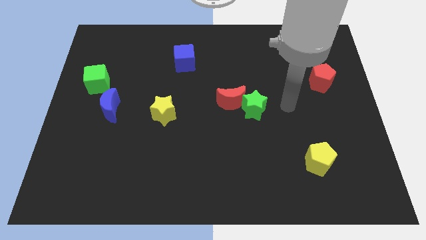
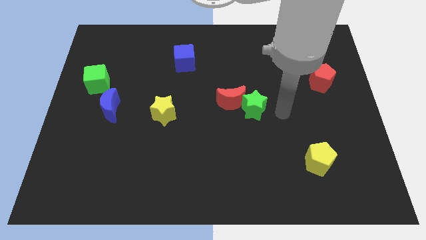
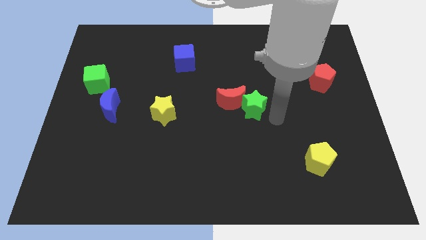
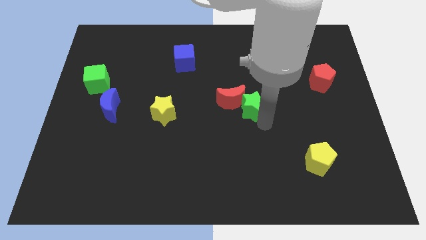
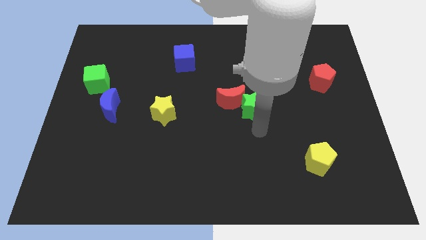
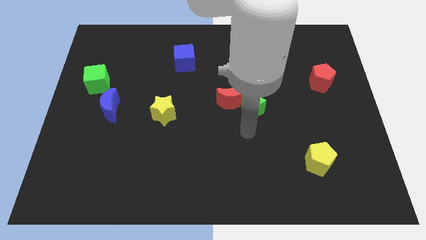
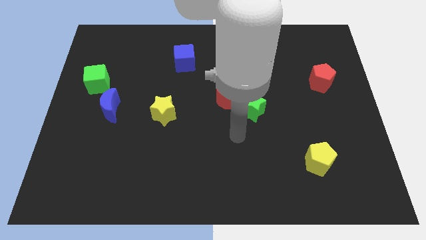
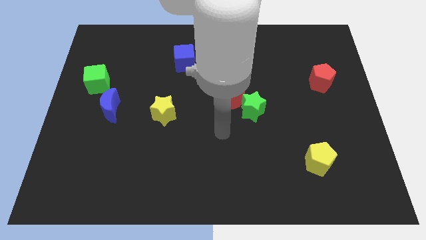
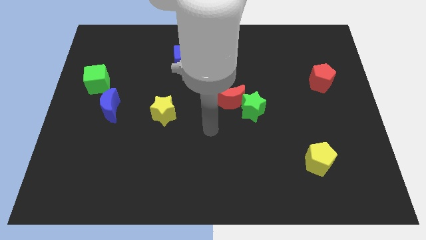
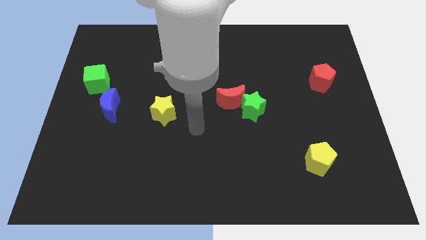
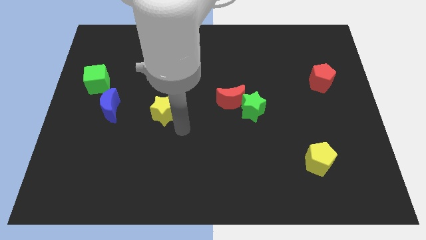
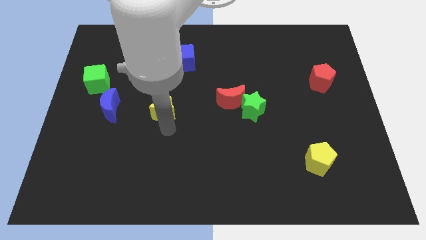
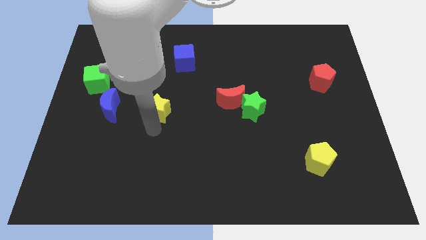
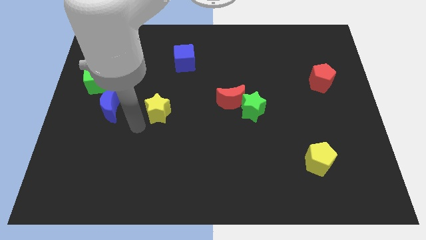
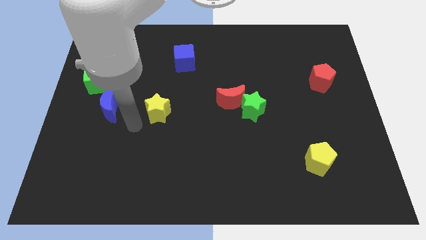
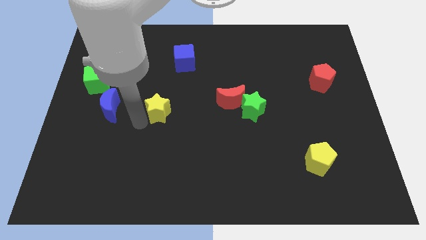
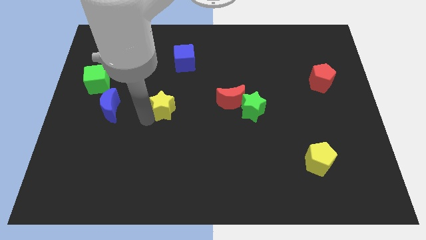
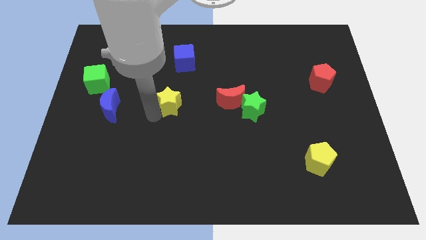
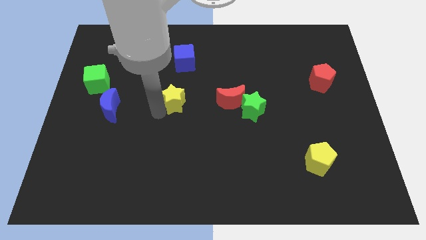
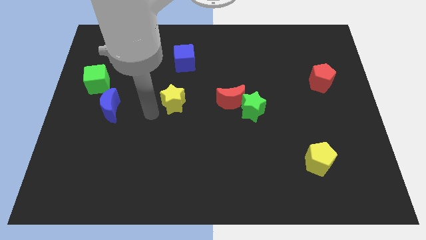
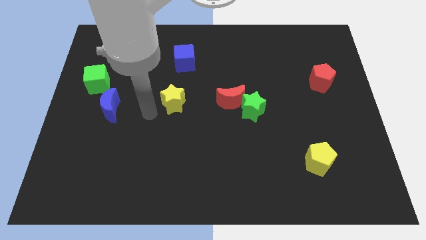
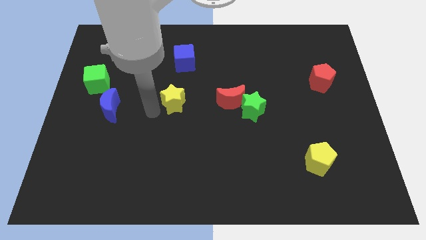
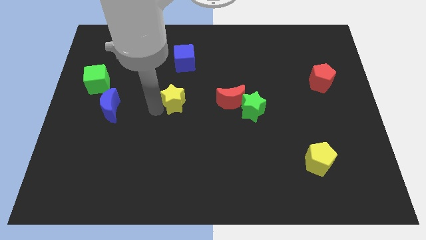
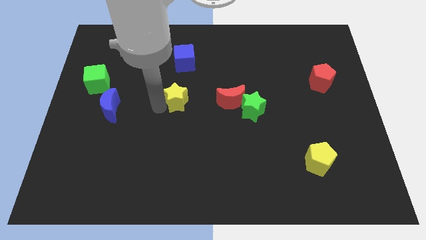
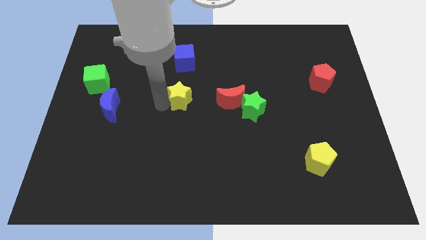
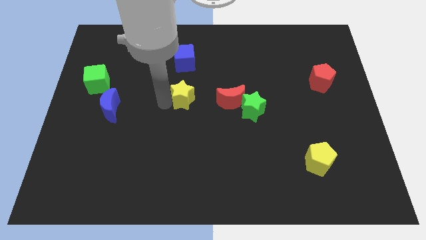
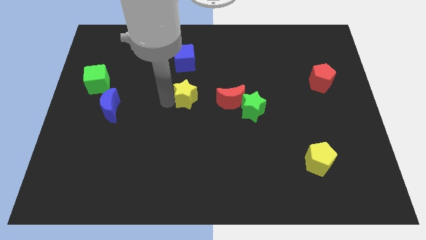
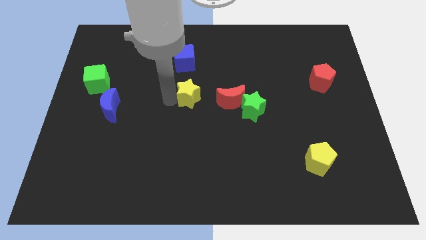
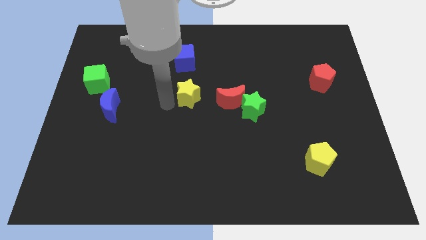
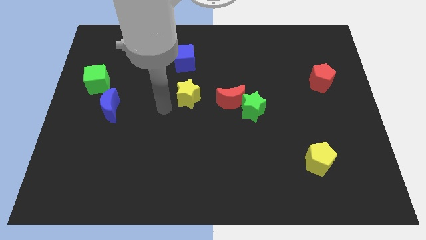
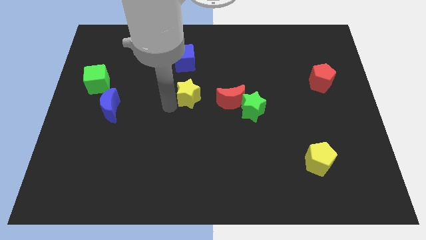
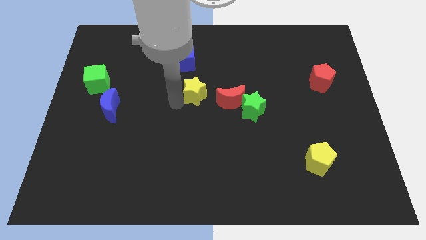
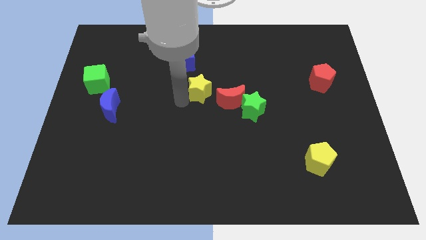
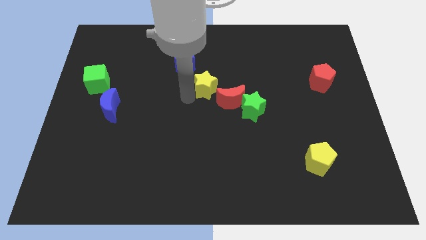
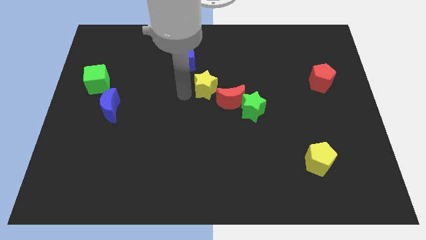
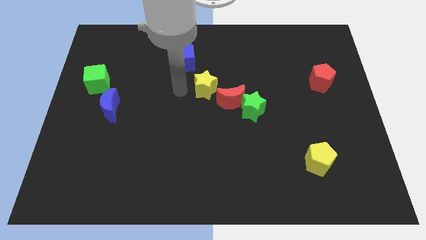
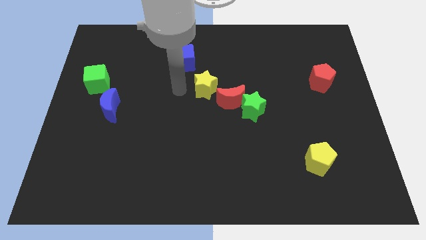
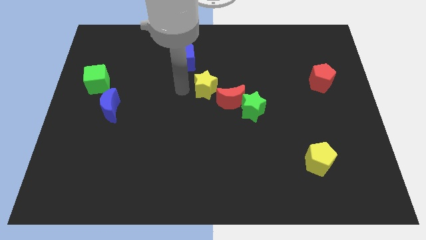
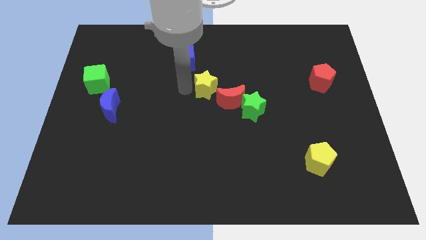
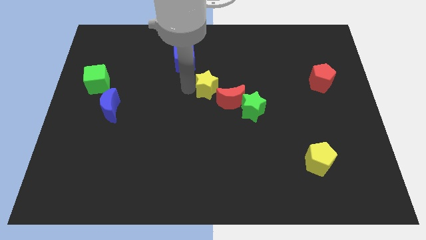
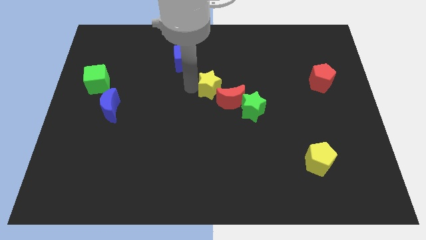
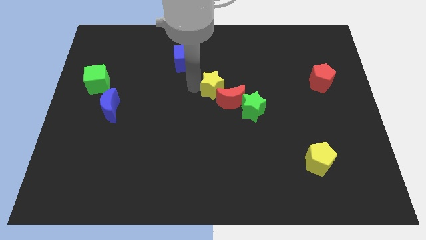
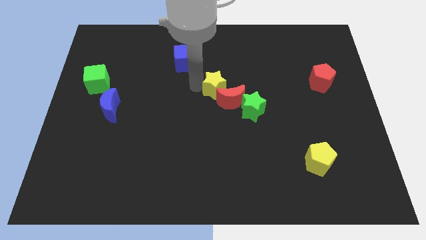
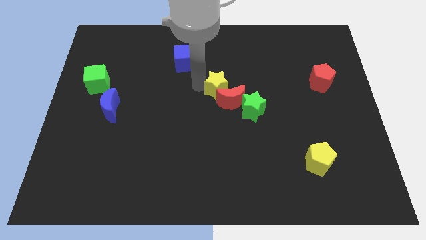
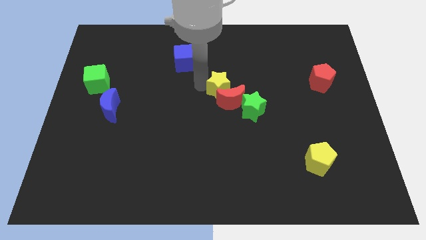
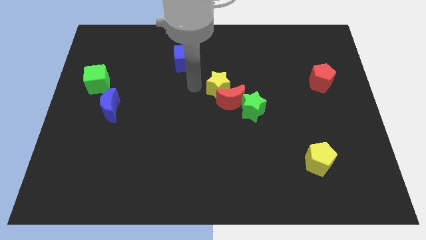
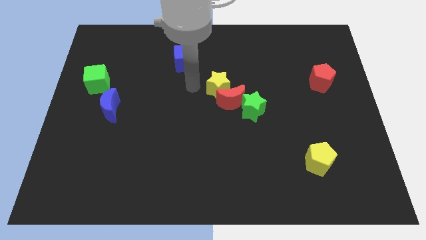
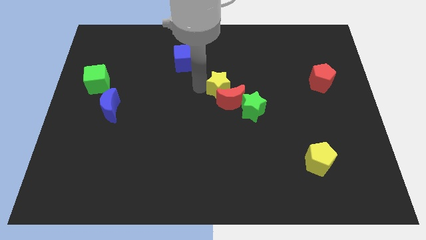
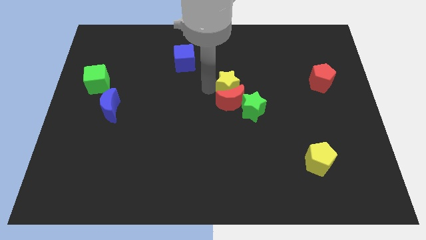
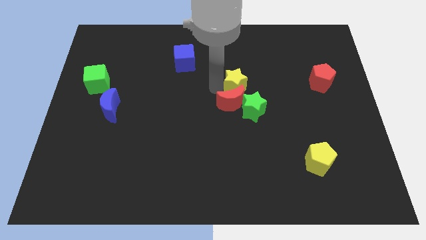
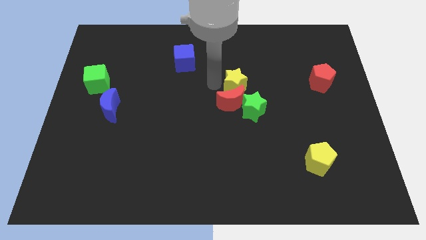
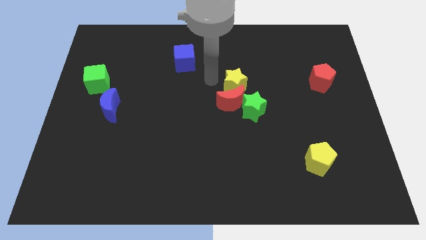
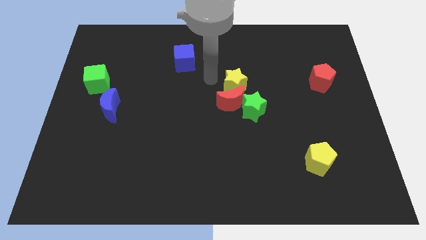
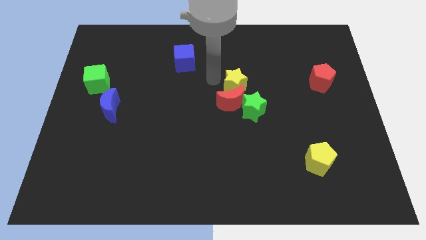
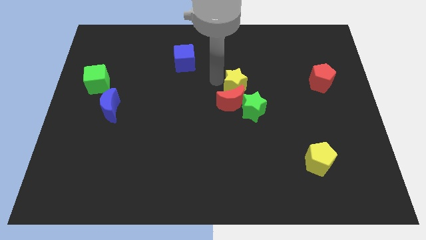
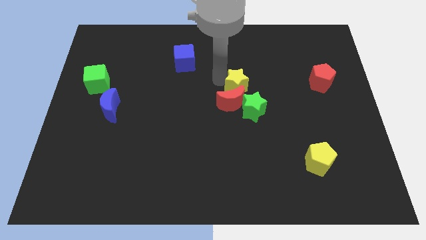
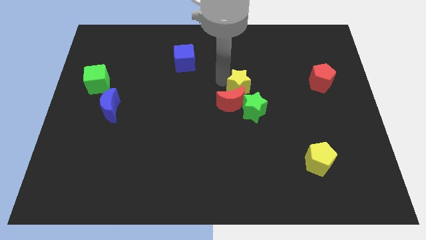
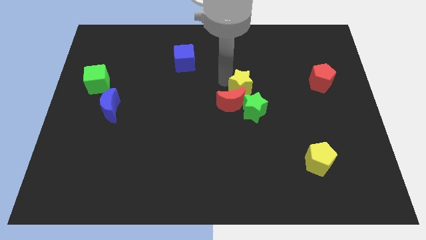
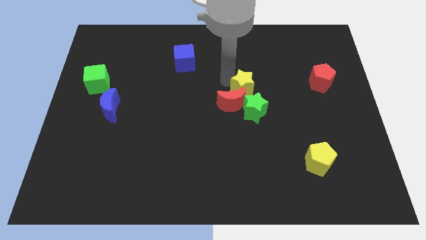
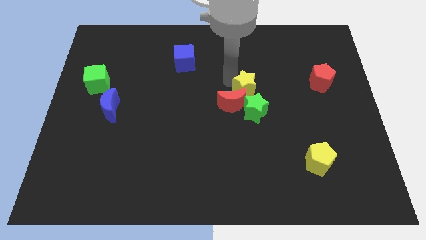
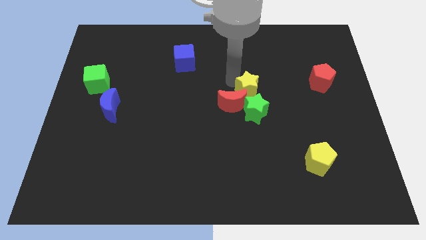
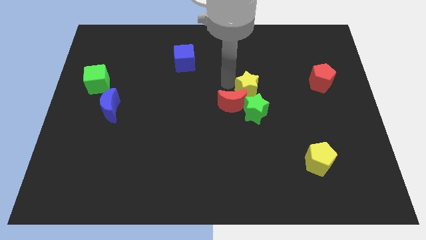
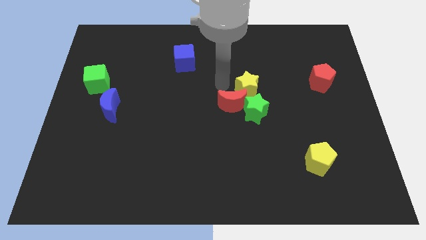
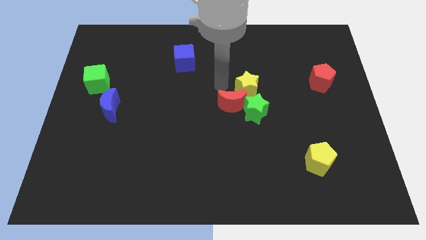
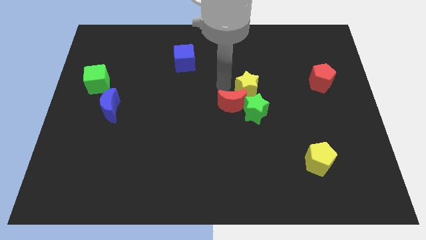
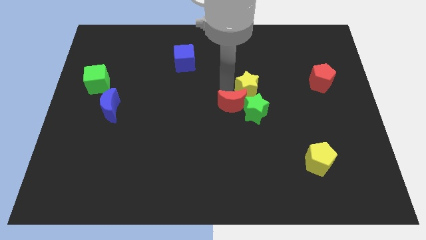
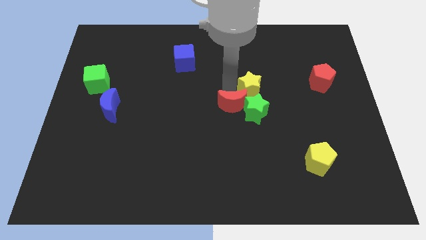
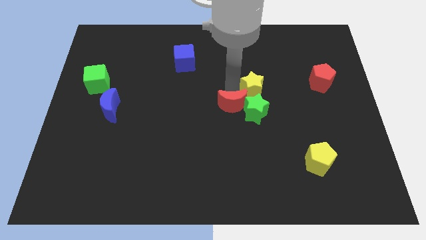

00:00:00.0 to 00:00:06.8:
move the yellow star diagonally up and to the right of the green star

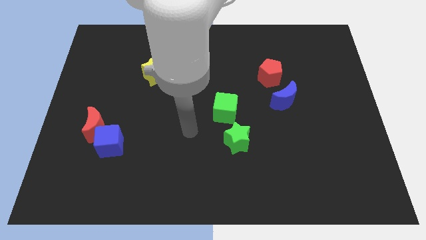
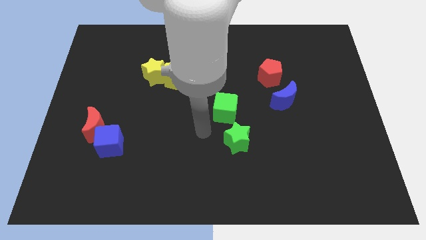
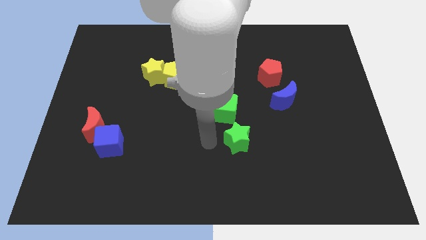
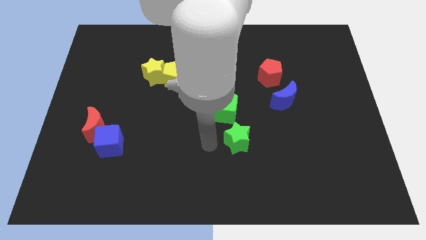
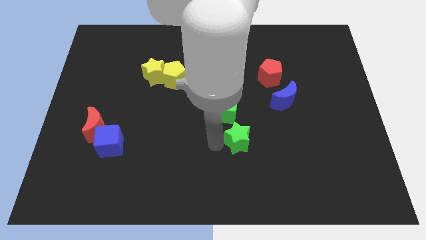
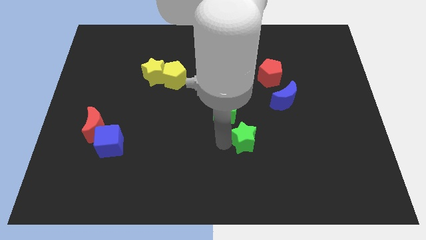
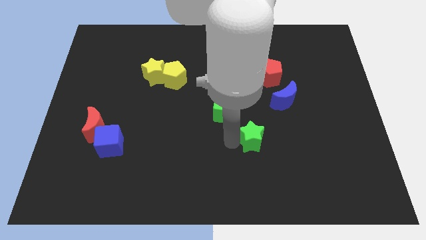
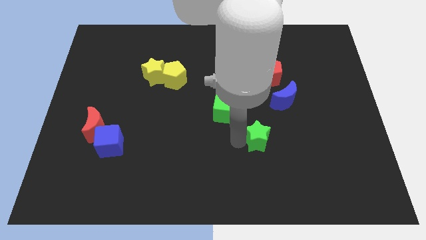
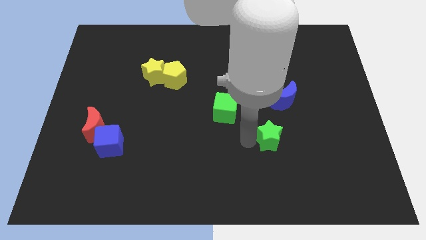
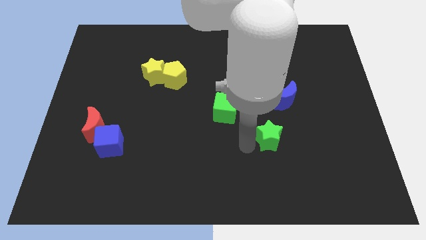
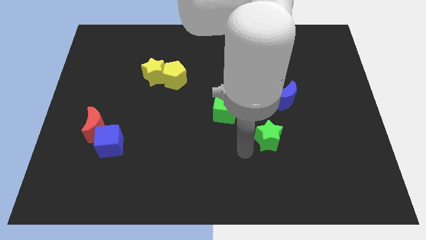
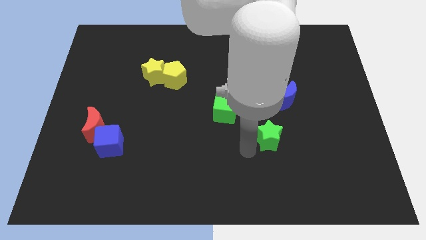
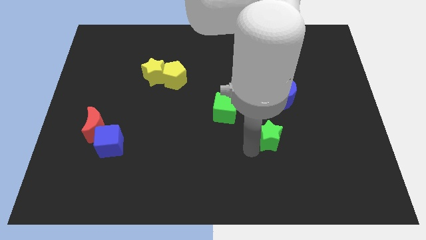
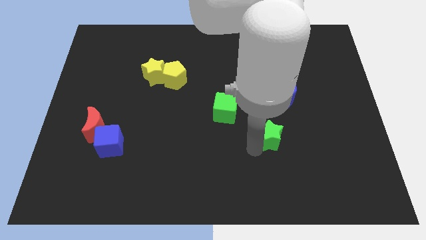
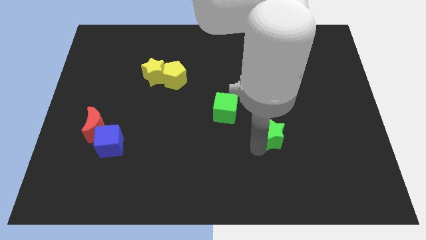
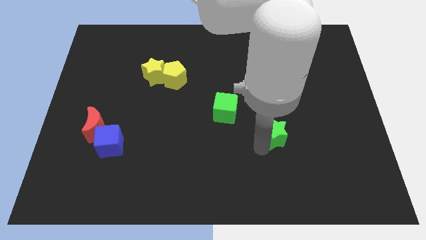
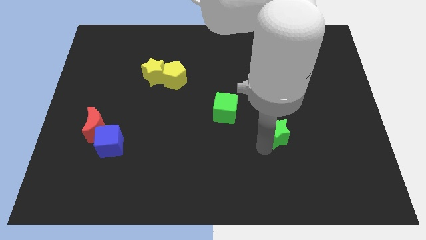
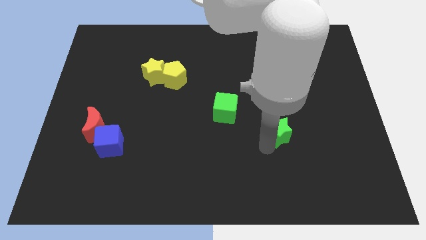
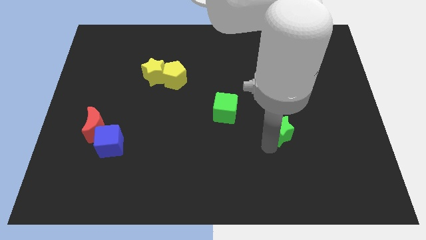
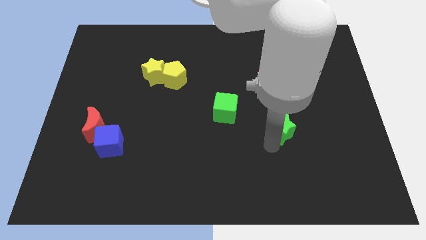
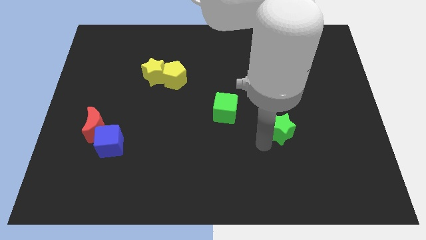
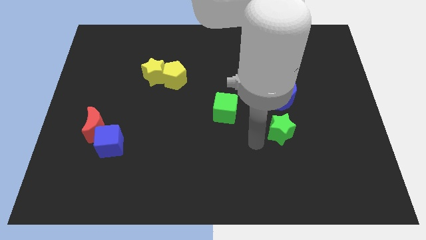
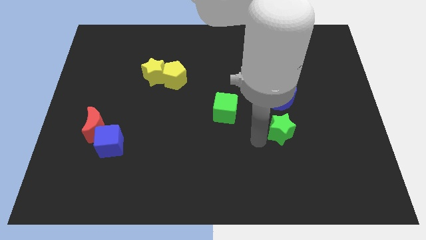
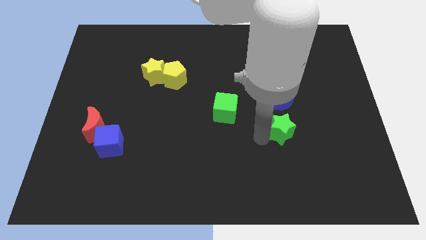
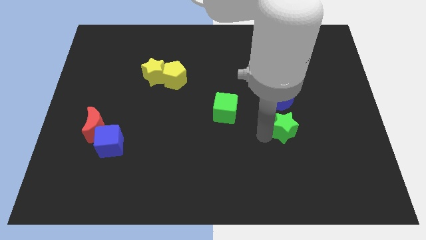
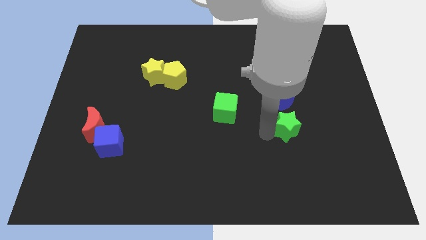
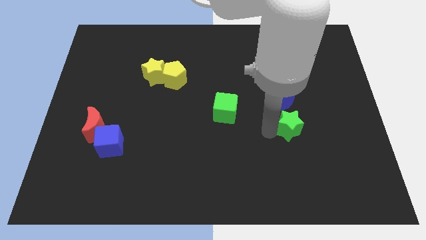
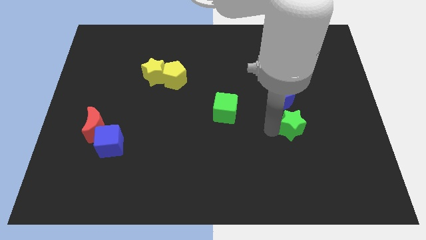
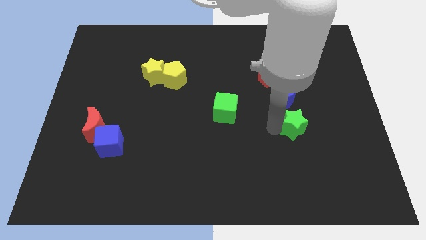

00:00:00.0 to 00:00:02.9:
slide the green star to the bottom right of the blue moon
